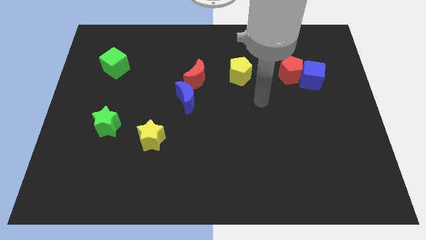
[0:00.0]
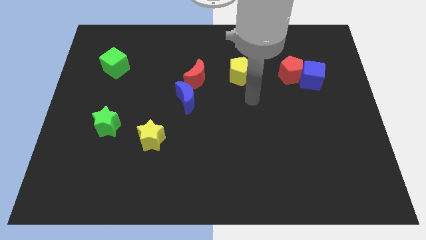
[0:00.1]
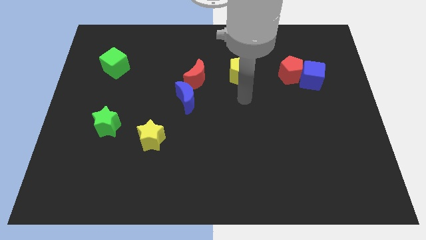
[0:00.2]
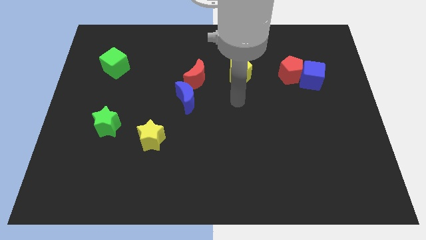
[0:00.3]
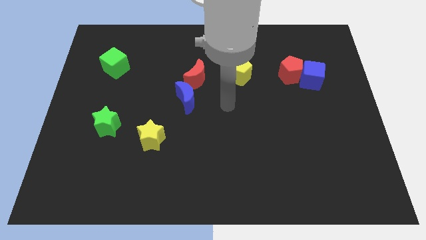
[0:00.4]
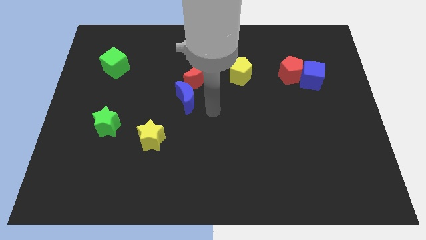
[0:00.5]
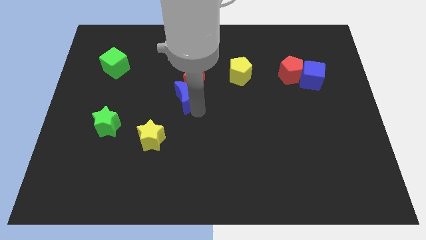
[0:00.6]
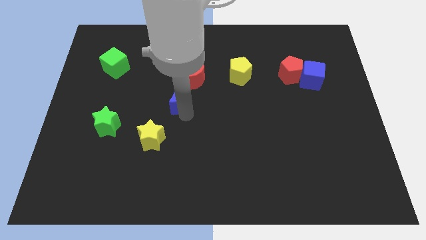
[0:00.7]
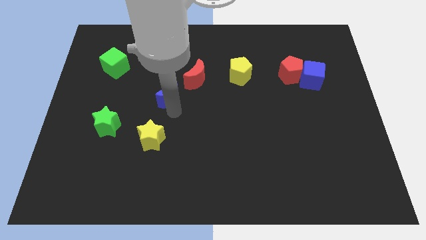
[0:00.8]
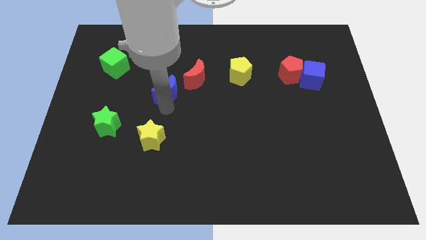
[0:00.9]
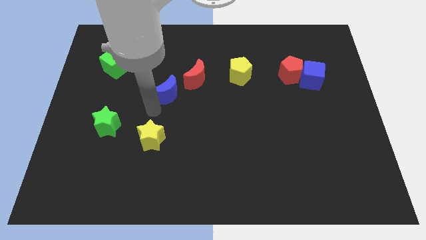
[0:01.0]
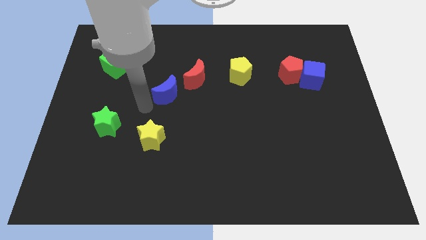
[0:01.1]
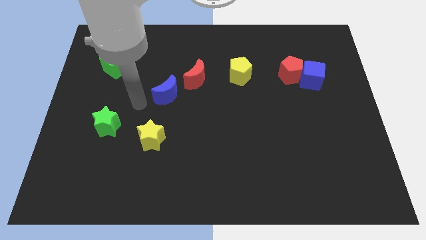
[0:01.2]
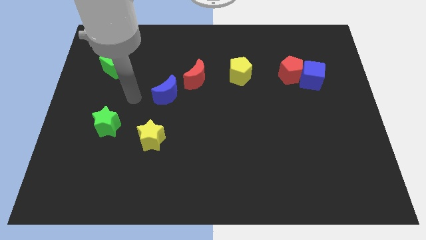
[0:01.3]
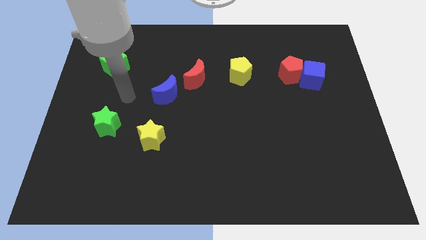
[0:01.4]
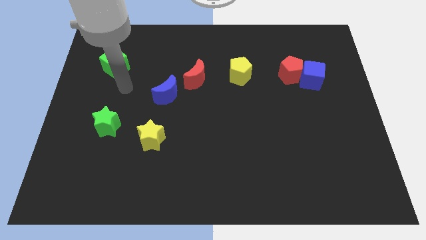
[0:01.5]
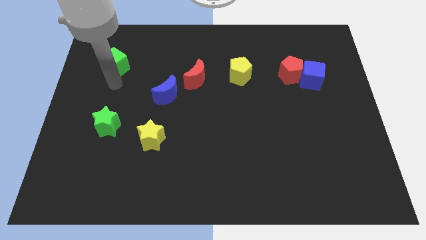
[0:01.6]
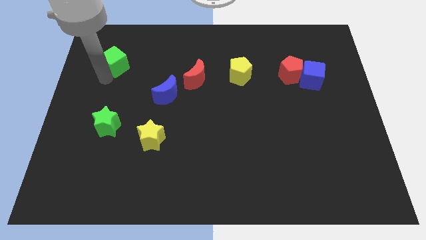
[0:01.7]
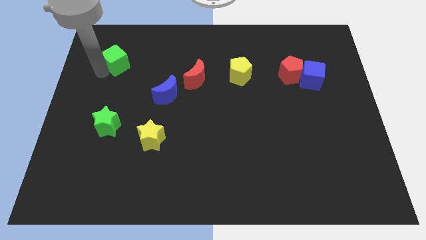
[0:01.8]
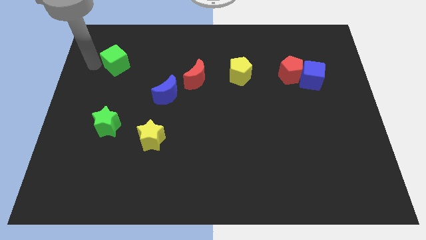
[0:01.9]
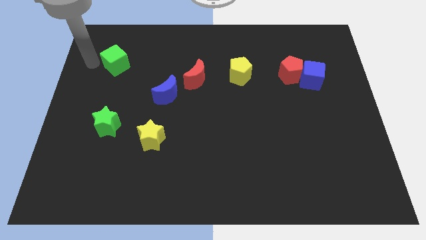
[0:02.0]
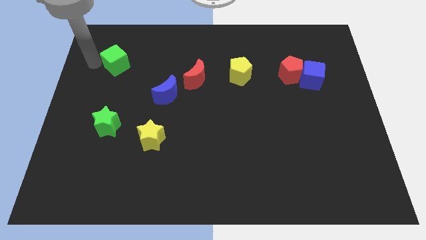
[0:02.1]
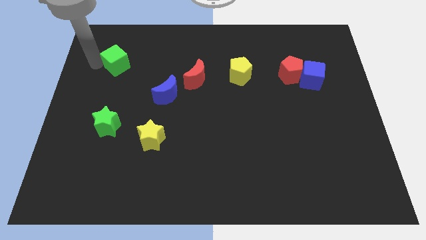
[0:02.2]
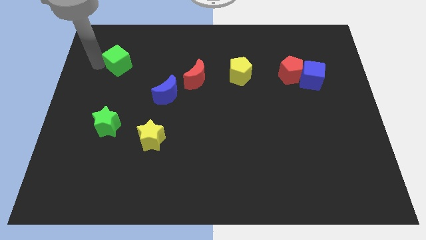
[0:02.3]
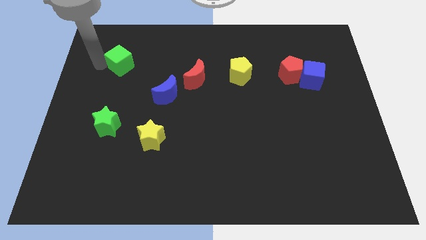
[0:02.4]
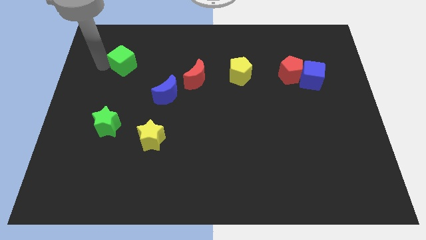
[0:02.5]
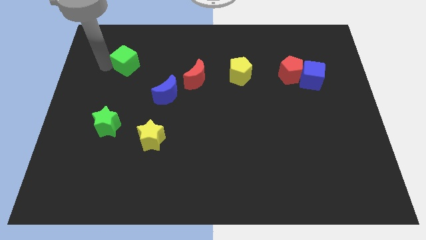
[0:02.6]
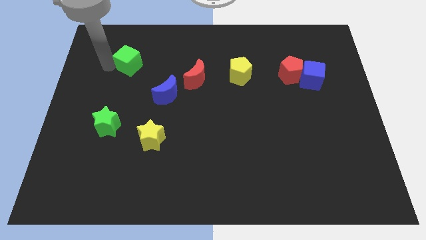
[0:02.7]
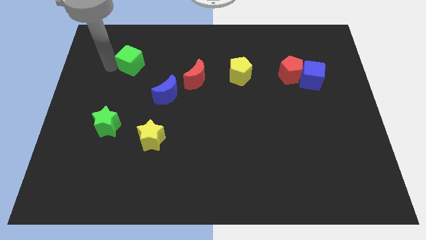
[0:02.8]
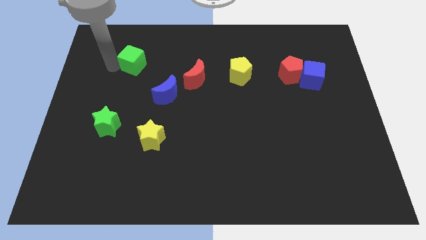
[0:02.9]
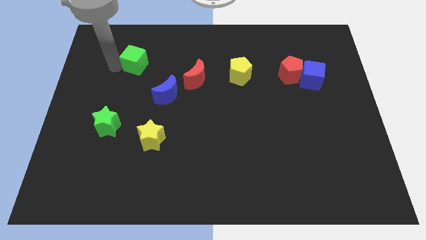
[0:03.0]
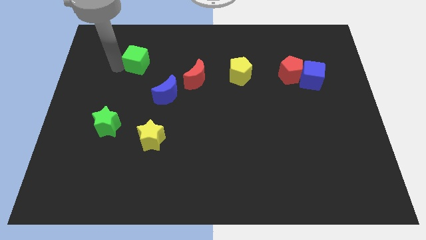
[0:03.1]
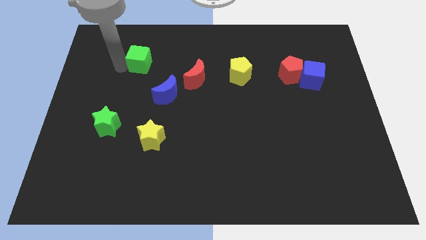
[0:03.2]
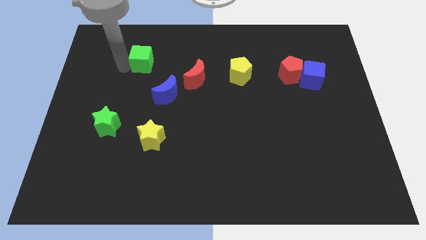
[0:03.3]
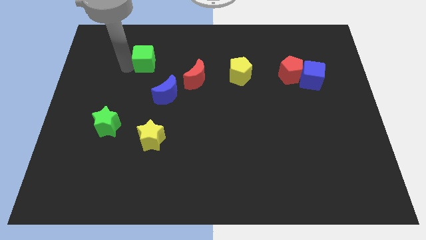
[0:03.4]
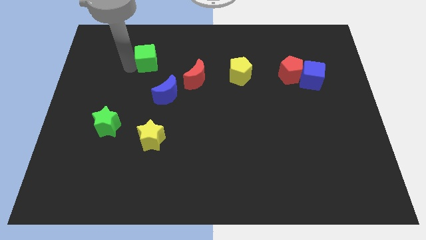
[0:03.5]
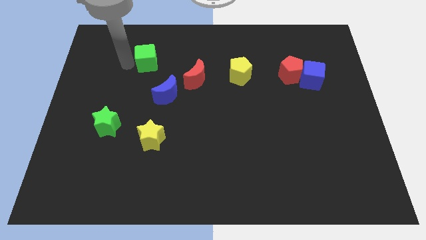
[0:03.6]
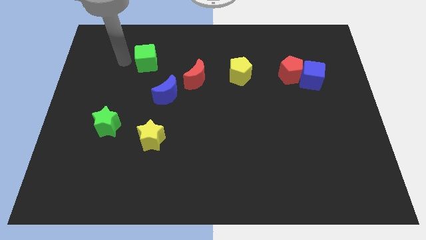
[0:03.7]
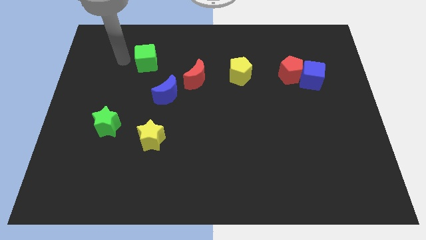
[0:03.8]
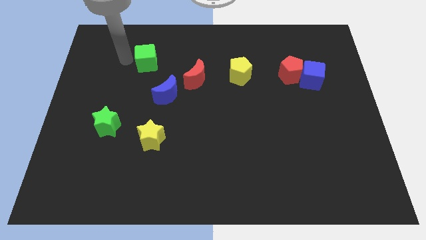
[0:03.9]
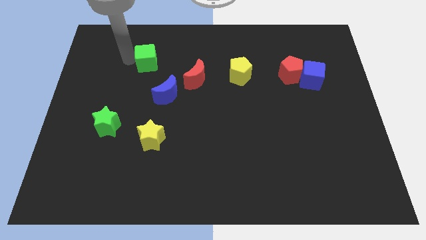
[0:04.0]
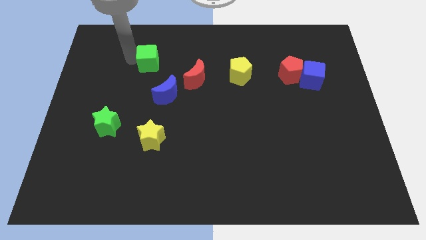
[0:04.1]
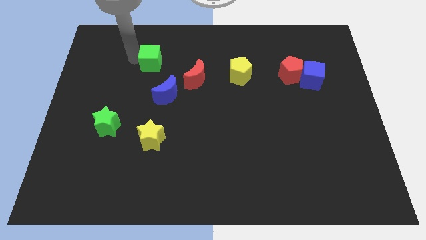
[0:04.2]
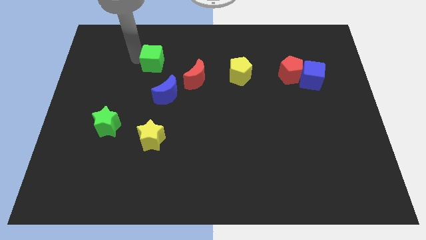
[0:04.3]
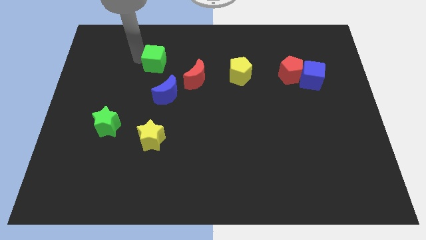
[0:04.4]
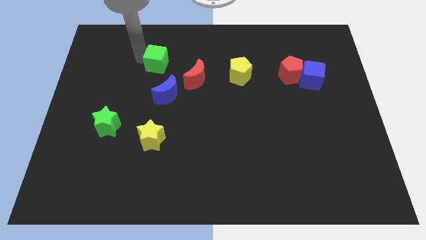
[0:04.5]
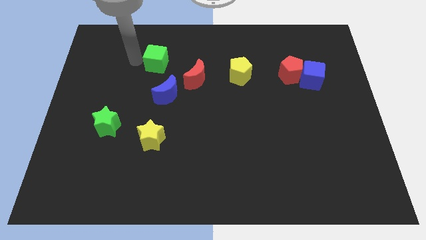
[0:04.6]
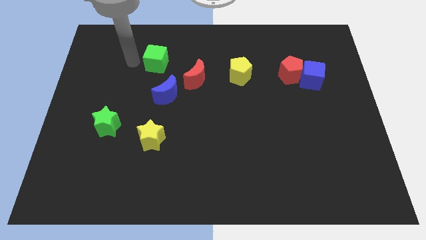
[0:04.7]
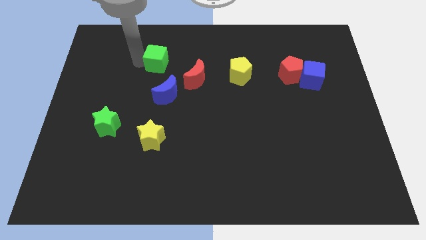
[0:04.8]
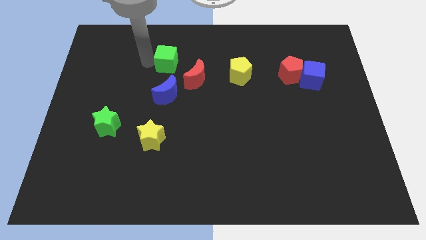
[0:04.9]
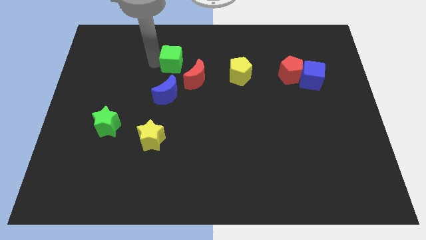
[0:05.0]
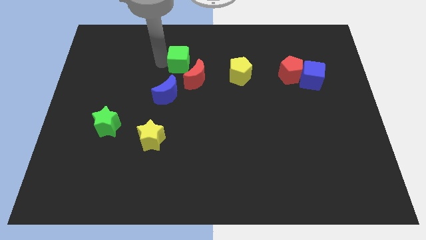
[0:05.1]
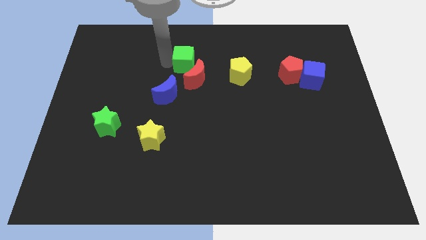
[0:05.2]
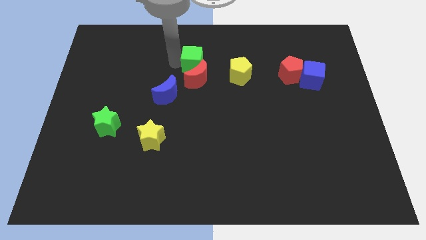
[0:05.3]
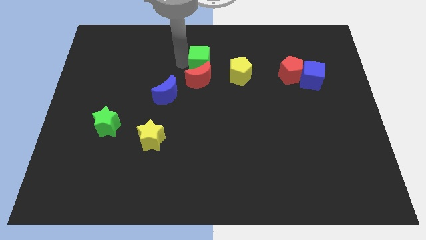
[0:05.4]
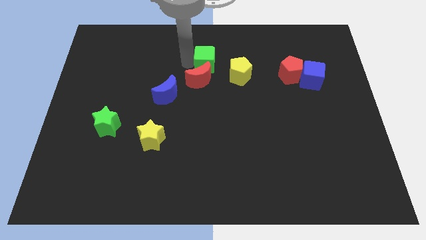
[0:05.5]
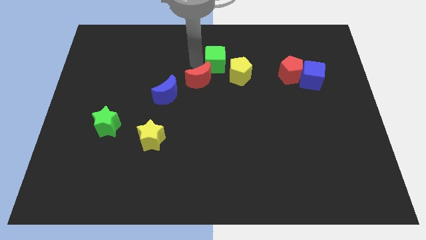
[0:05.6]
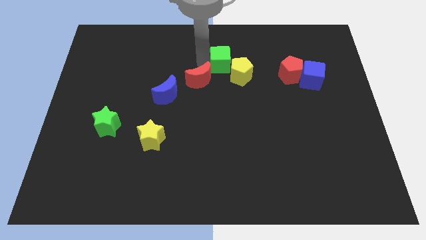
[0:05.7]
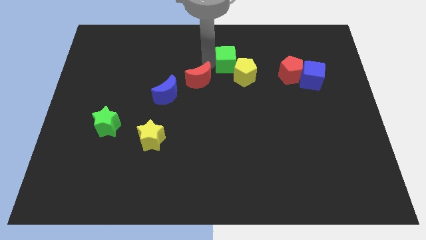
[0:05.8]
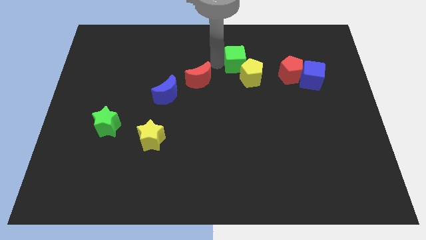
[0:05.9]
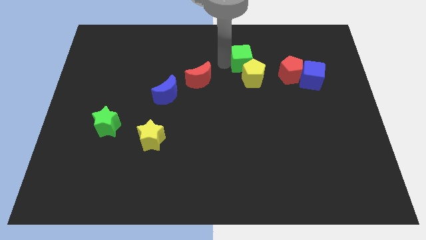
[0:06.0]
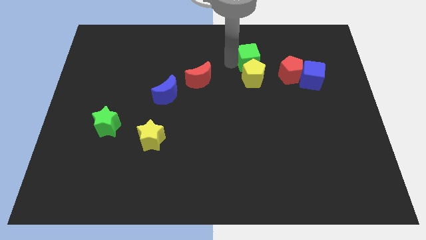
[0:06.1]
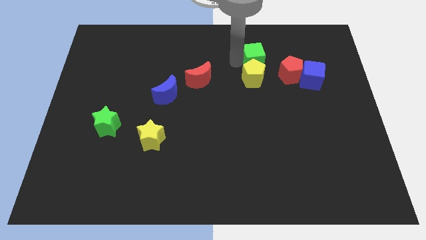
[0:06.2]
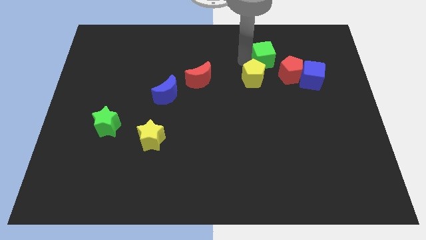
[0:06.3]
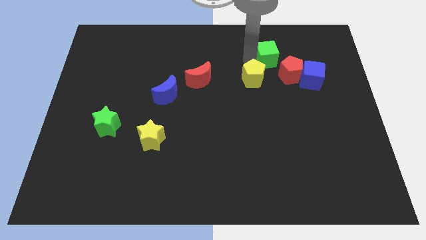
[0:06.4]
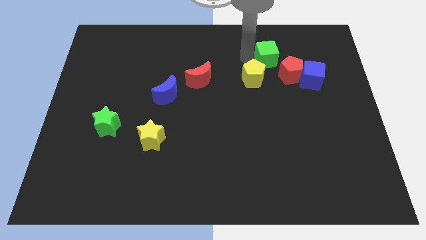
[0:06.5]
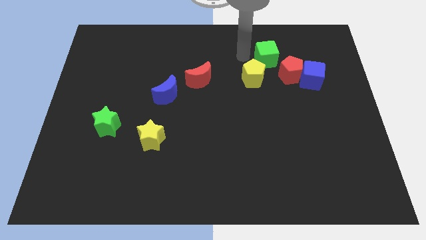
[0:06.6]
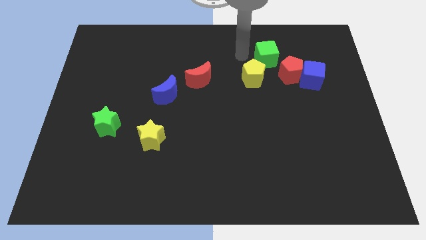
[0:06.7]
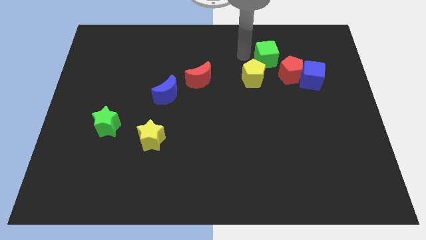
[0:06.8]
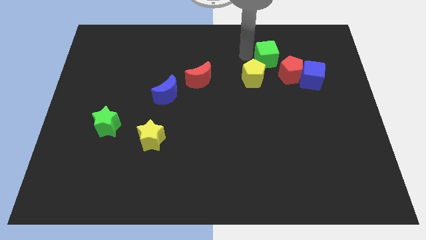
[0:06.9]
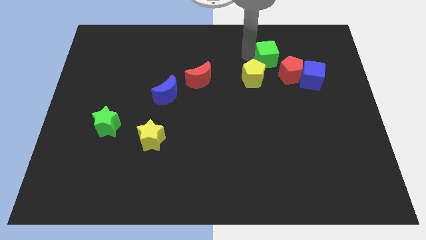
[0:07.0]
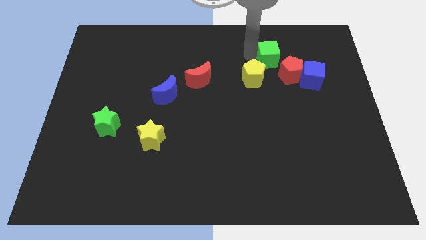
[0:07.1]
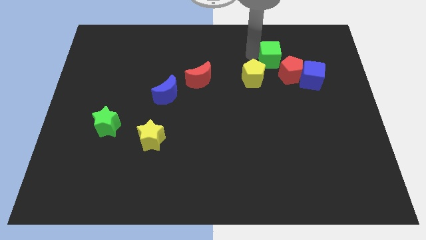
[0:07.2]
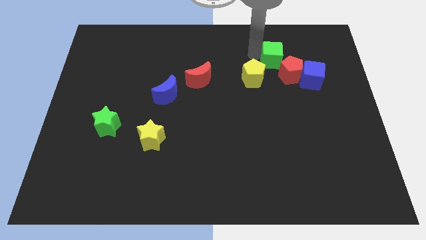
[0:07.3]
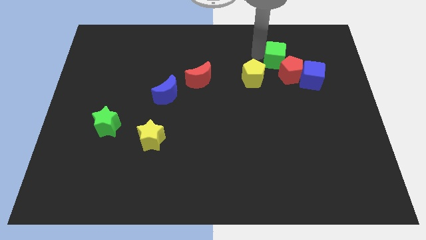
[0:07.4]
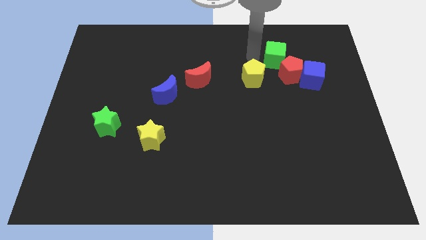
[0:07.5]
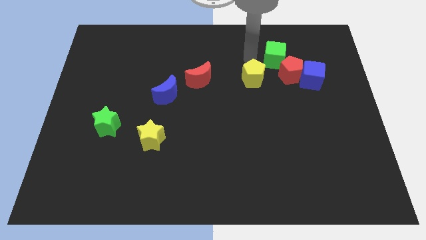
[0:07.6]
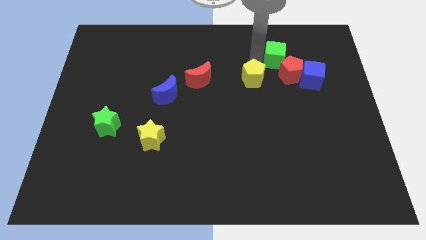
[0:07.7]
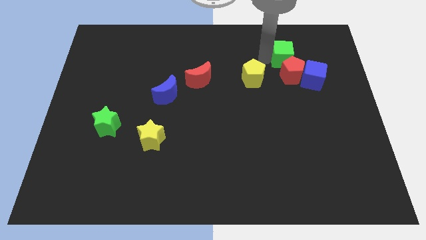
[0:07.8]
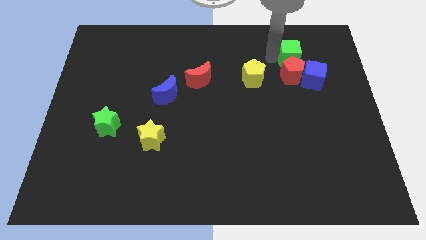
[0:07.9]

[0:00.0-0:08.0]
push the green cube diagonally up and to the right of the red pentagon
